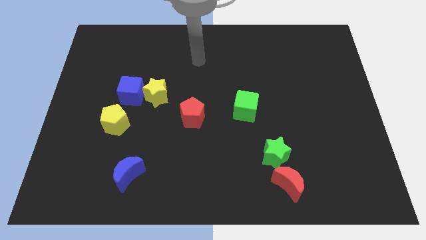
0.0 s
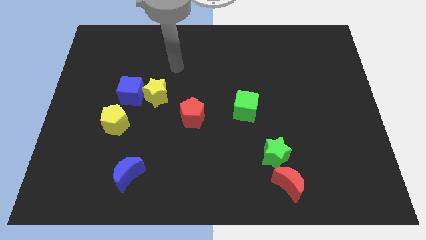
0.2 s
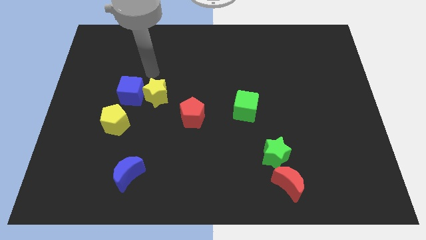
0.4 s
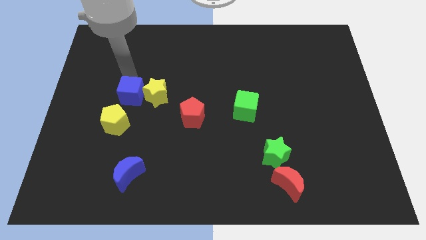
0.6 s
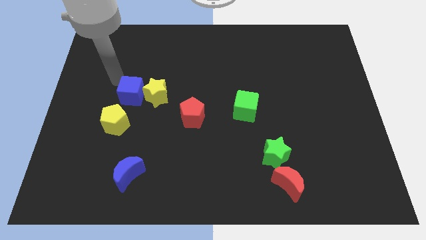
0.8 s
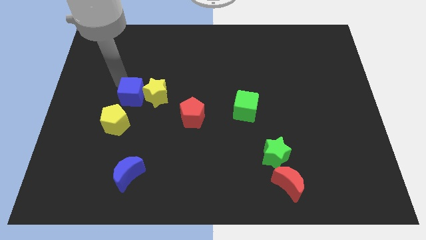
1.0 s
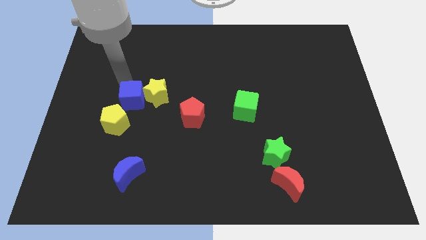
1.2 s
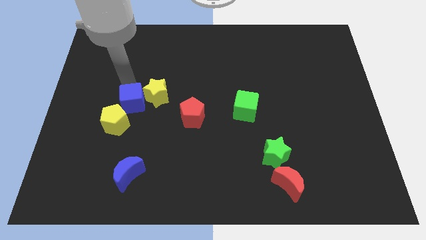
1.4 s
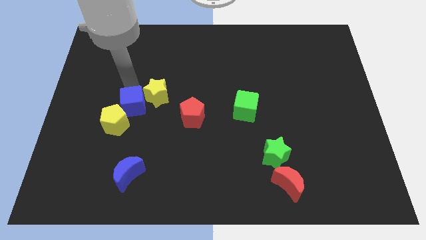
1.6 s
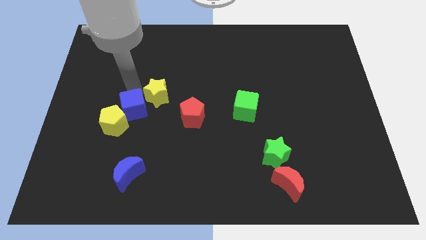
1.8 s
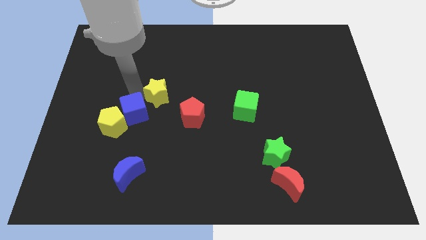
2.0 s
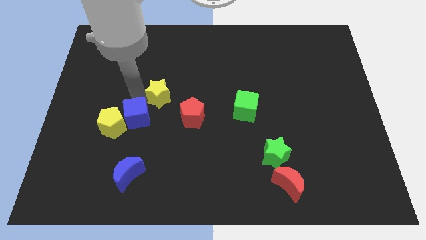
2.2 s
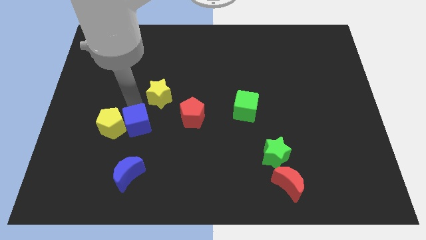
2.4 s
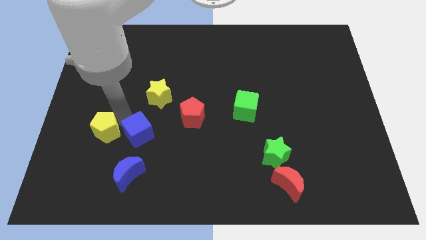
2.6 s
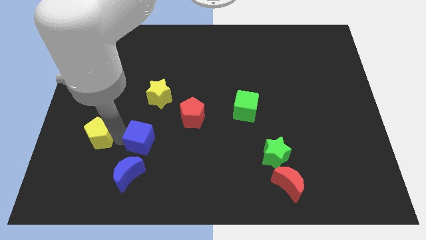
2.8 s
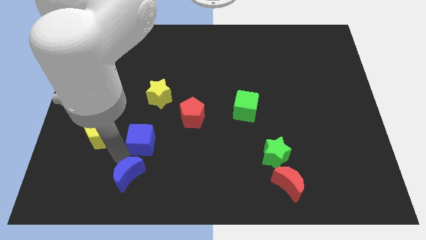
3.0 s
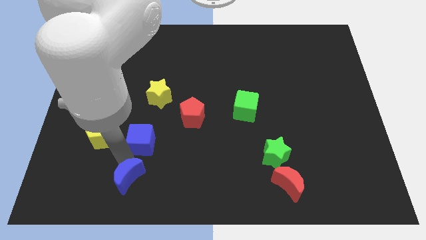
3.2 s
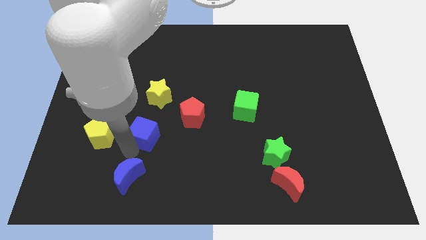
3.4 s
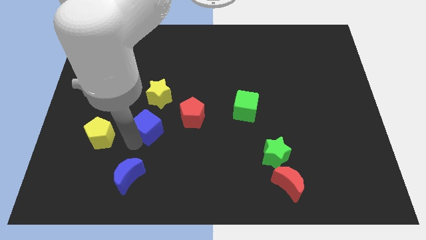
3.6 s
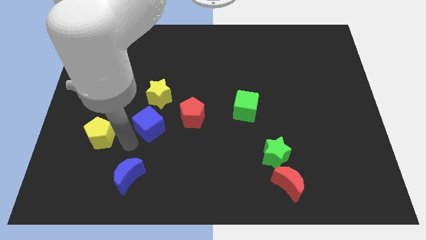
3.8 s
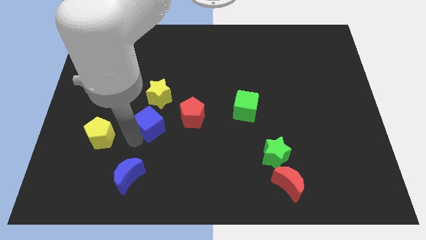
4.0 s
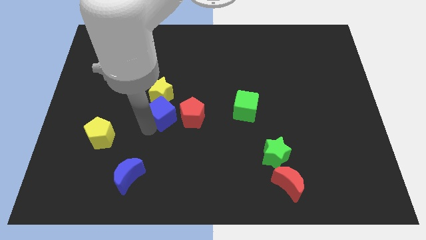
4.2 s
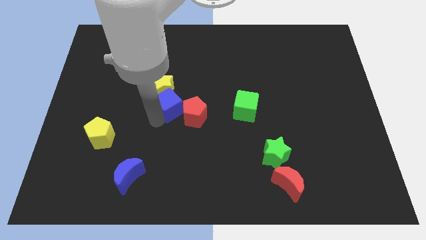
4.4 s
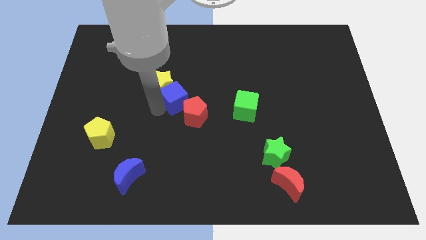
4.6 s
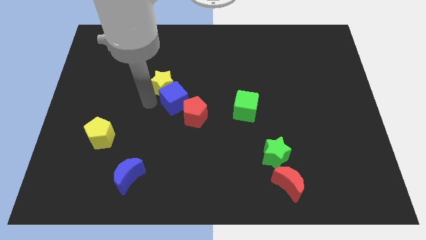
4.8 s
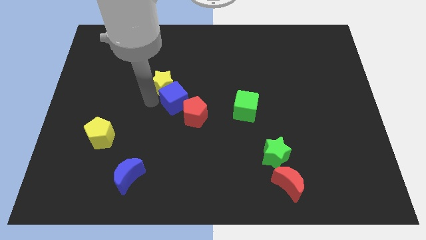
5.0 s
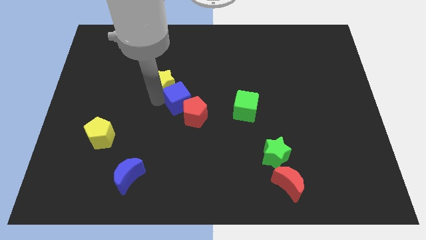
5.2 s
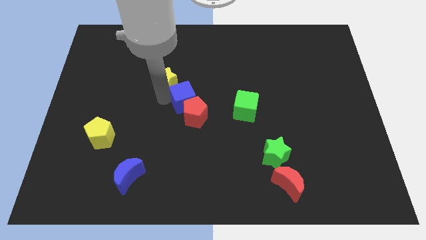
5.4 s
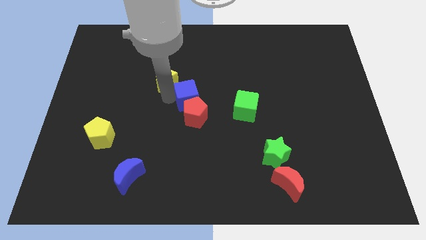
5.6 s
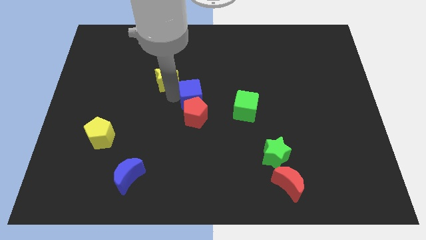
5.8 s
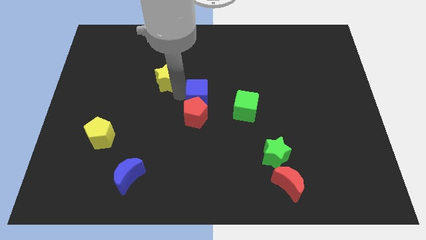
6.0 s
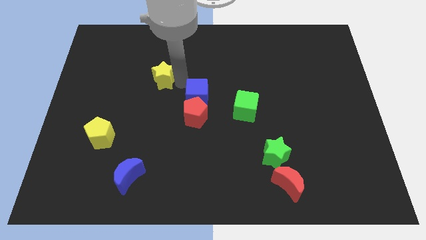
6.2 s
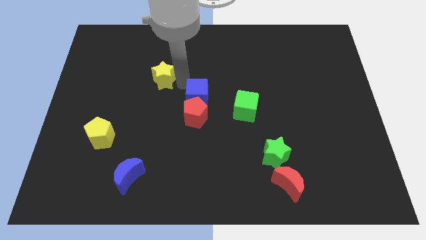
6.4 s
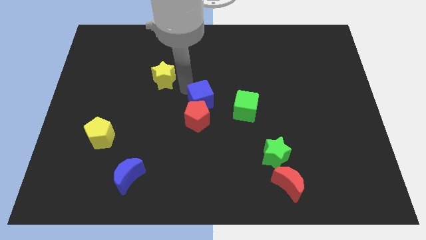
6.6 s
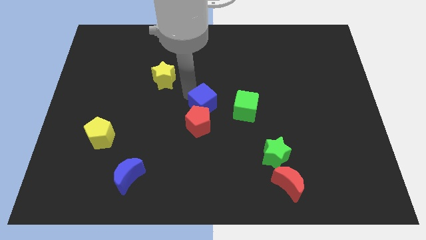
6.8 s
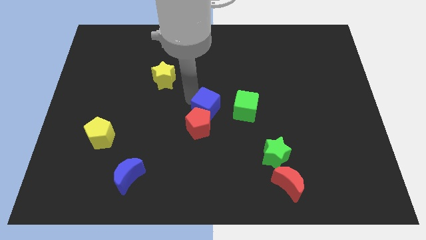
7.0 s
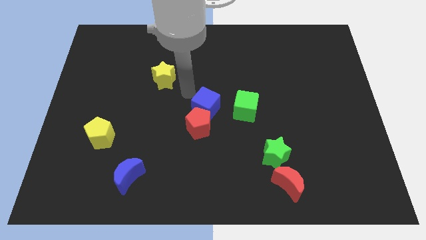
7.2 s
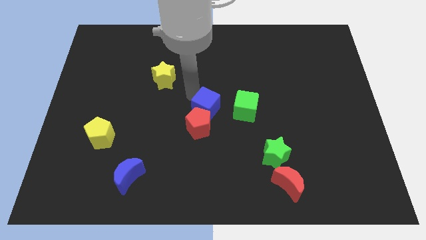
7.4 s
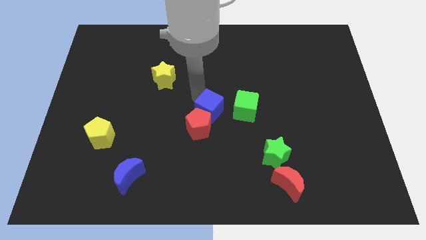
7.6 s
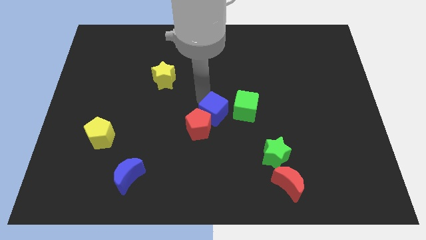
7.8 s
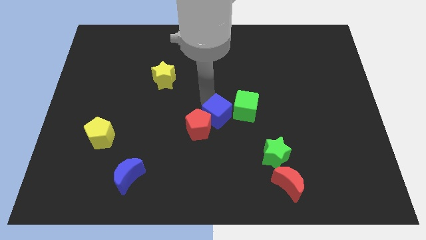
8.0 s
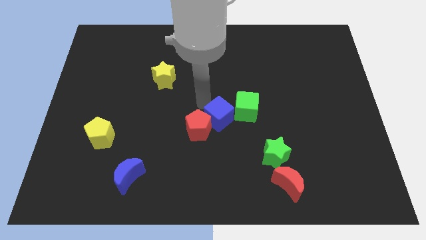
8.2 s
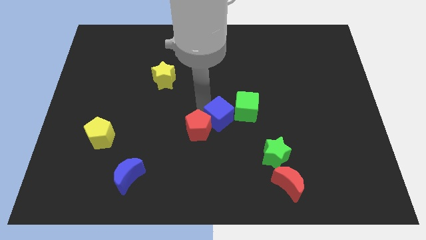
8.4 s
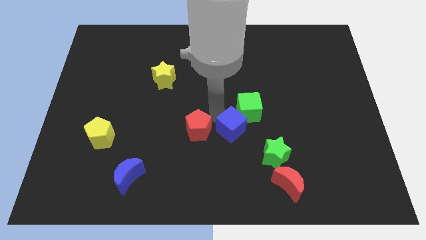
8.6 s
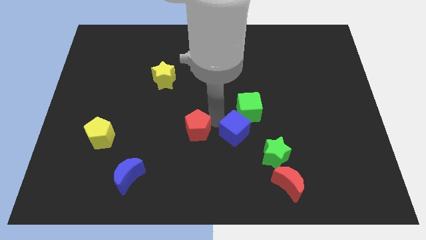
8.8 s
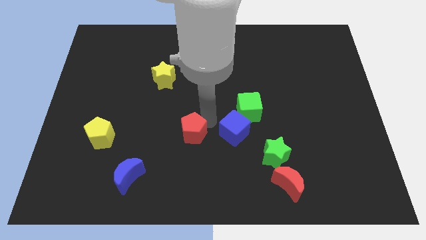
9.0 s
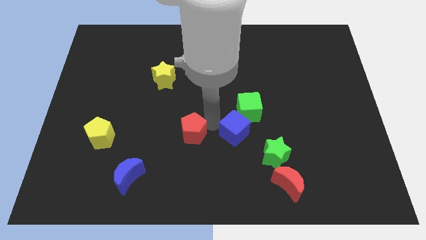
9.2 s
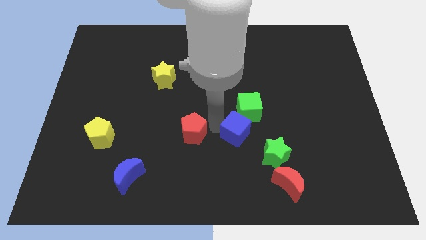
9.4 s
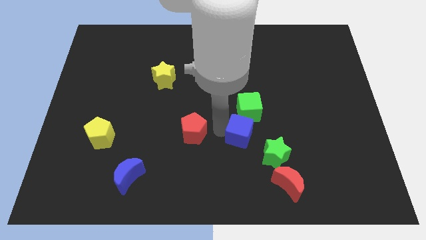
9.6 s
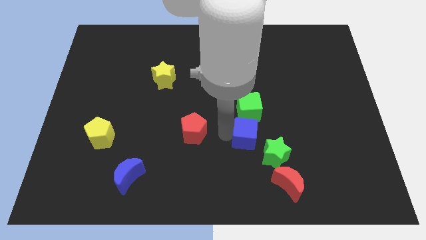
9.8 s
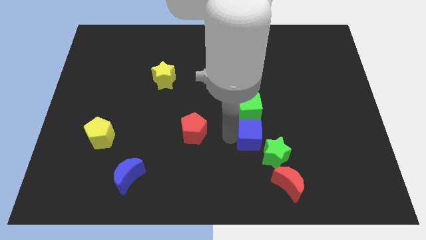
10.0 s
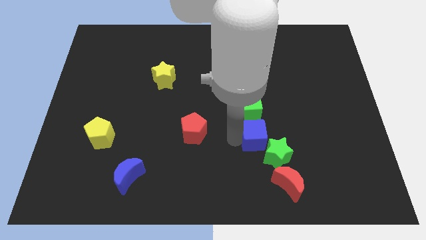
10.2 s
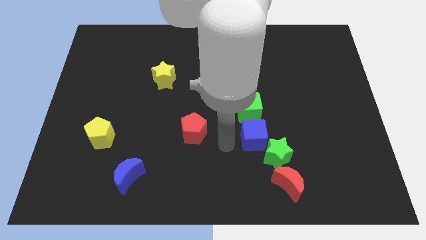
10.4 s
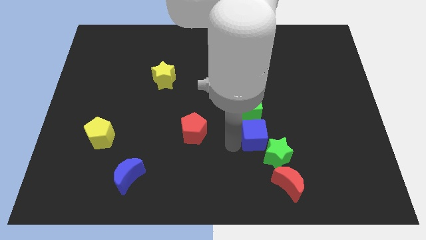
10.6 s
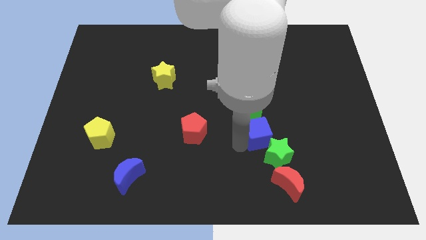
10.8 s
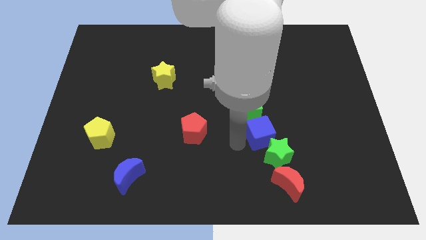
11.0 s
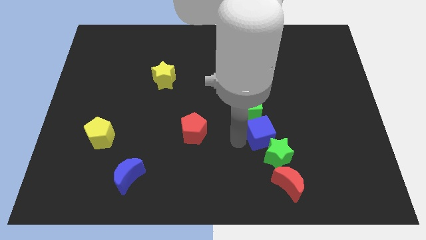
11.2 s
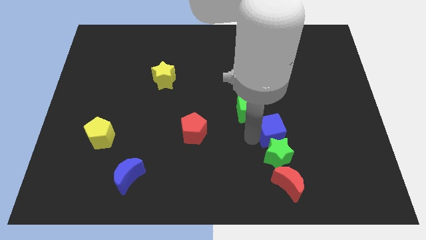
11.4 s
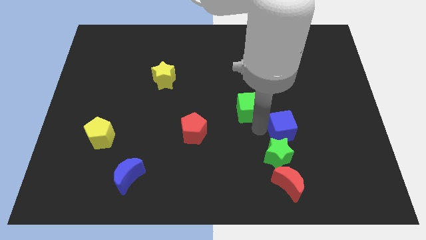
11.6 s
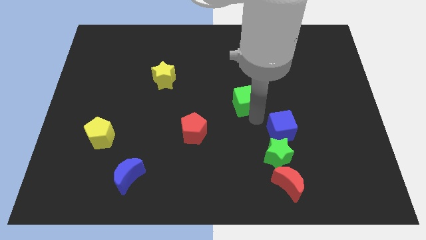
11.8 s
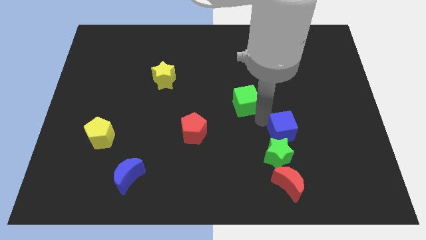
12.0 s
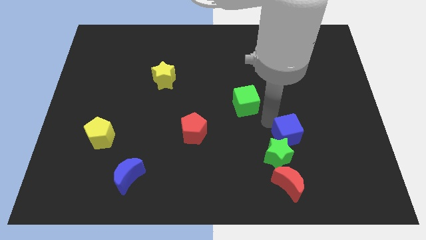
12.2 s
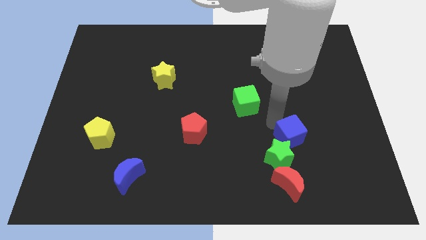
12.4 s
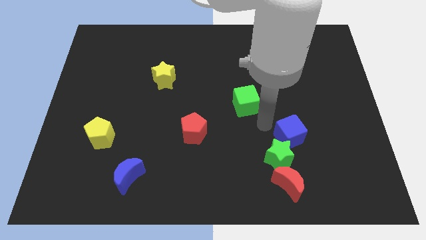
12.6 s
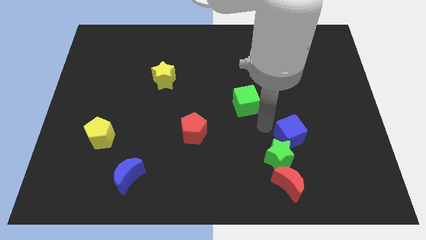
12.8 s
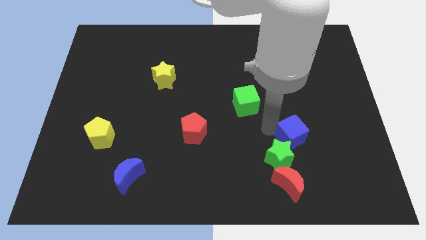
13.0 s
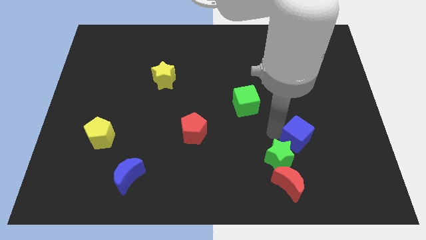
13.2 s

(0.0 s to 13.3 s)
slide the blue cube to the right side of the green star

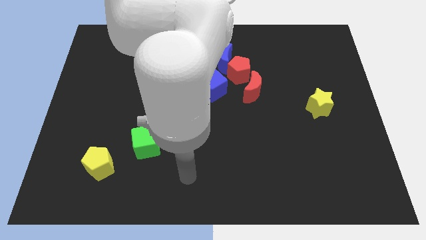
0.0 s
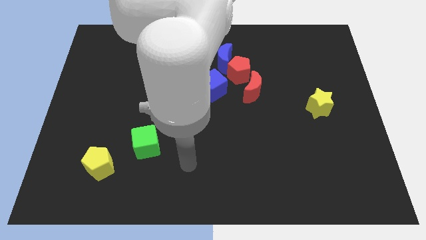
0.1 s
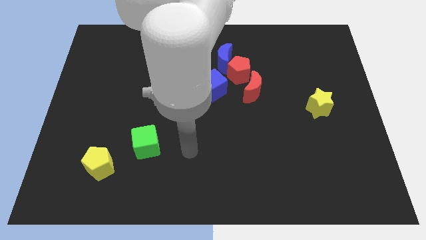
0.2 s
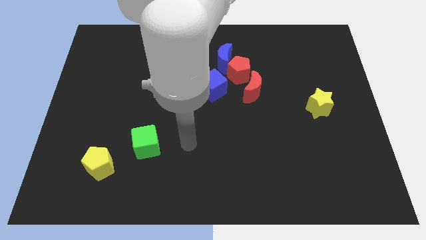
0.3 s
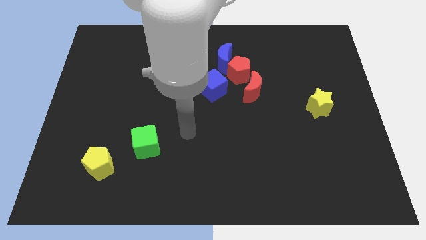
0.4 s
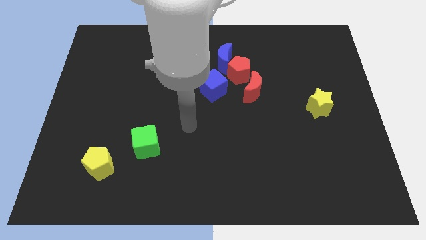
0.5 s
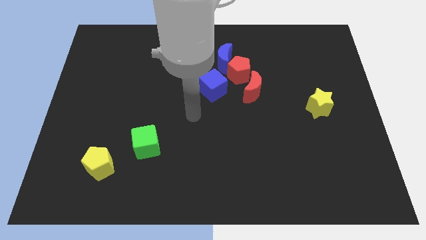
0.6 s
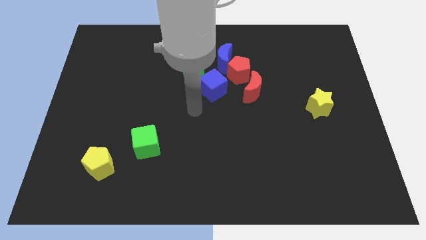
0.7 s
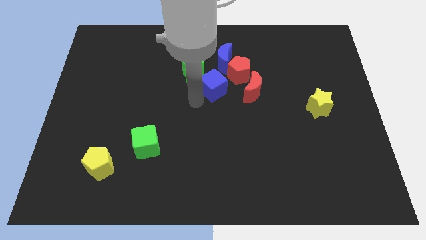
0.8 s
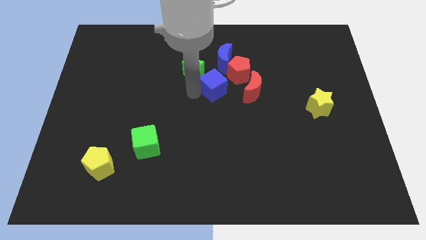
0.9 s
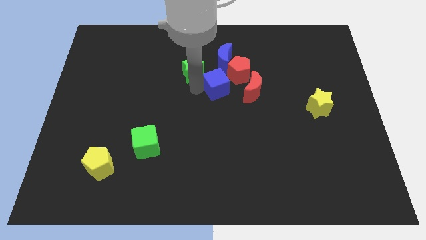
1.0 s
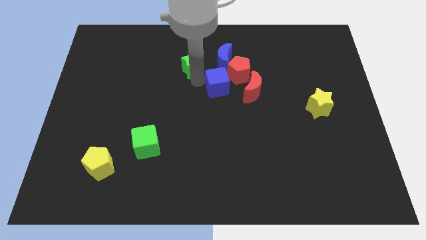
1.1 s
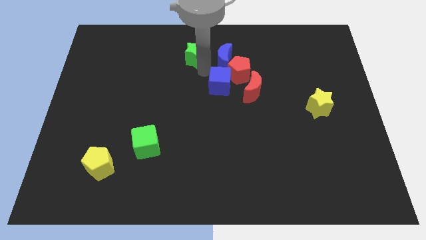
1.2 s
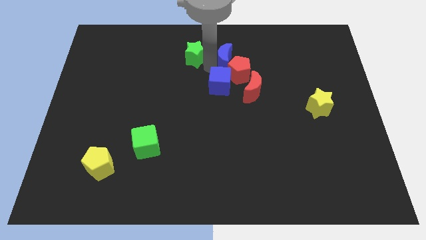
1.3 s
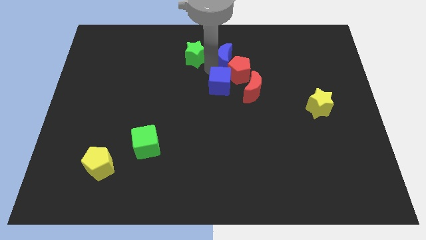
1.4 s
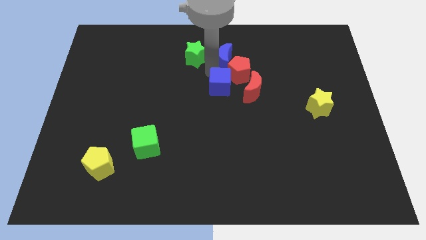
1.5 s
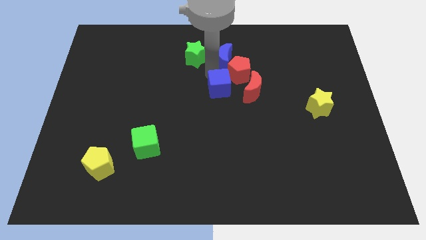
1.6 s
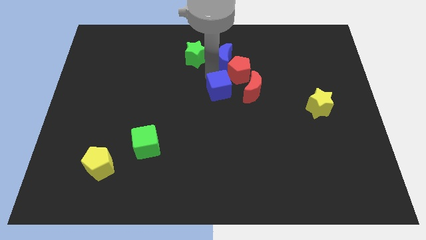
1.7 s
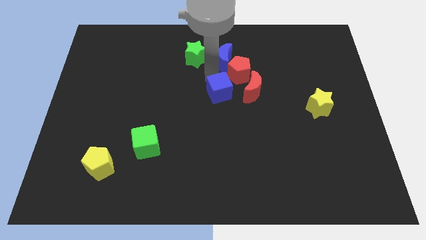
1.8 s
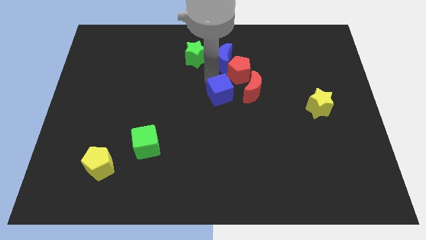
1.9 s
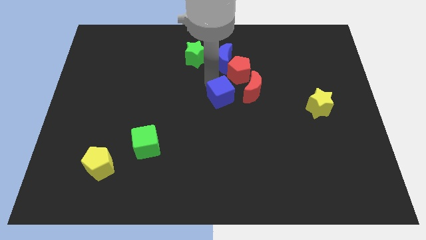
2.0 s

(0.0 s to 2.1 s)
push the blue cube to the bottom left of the red moon
